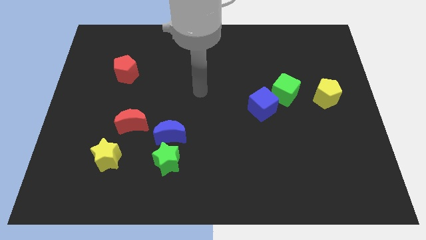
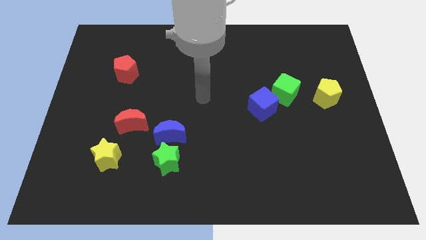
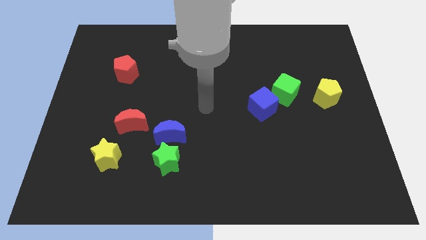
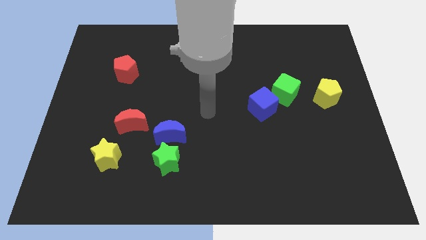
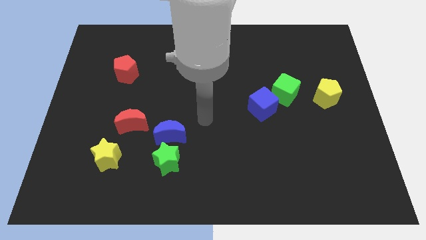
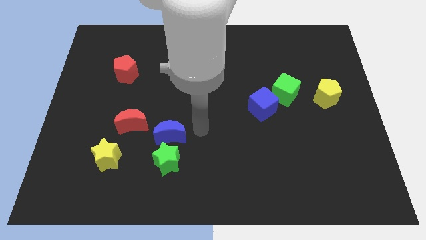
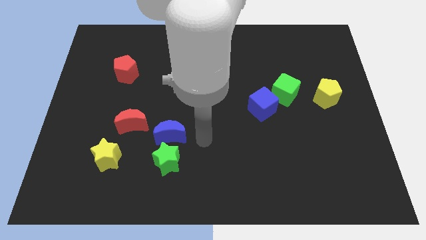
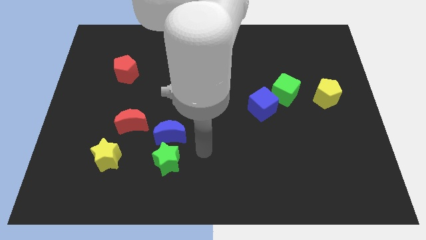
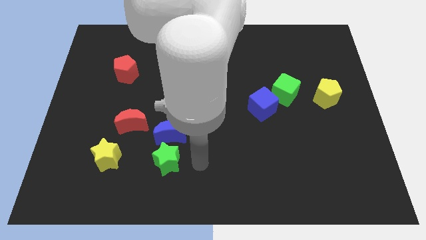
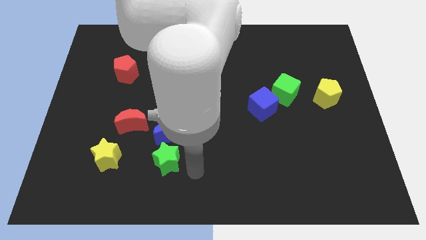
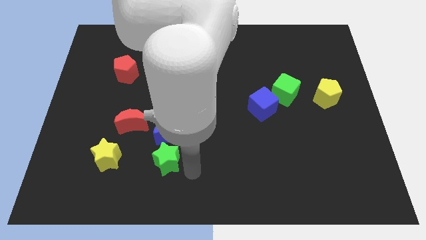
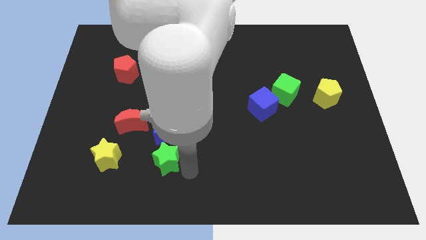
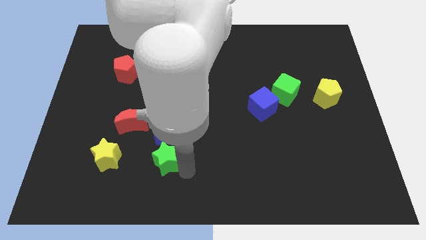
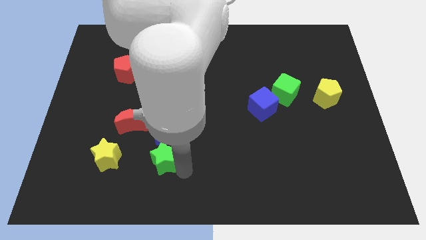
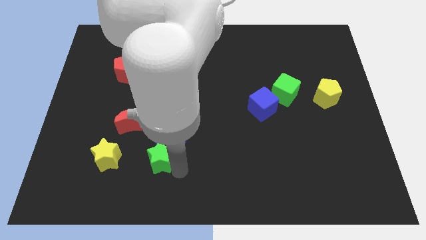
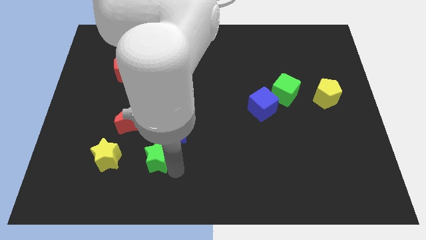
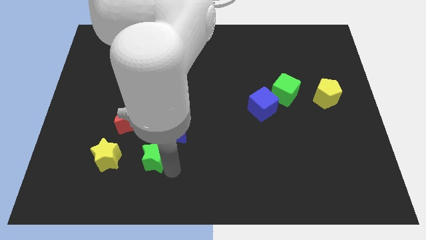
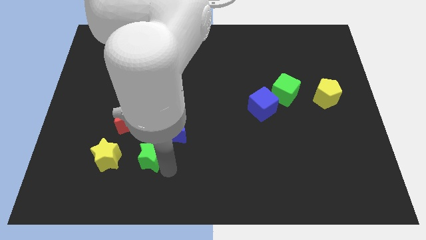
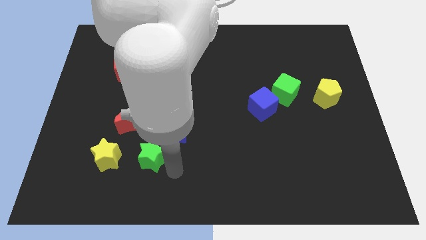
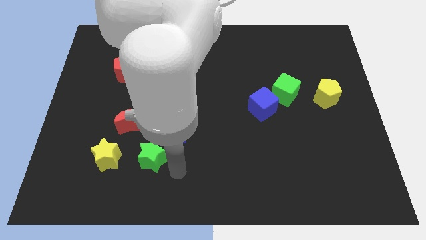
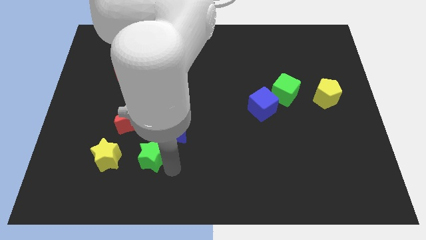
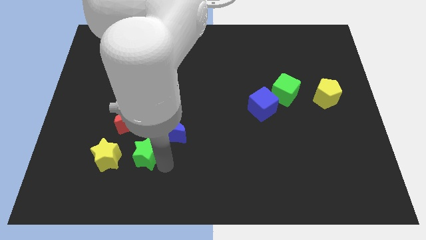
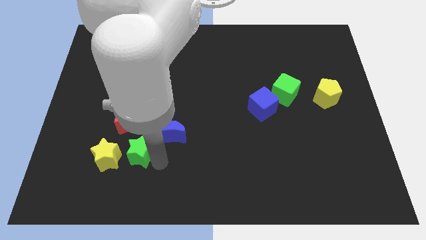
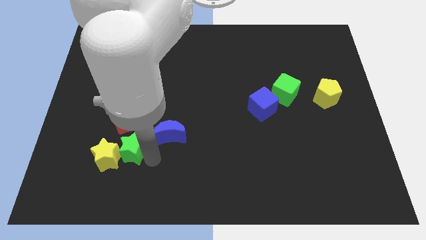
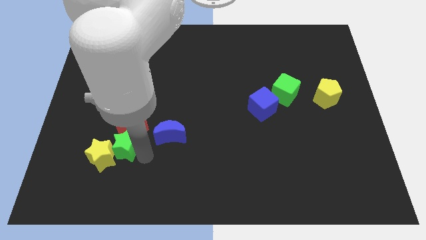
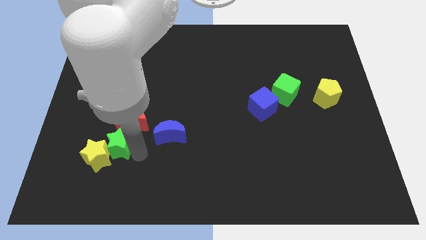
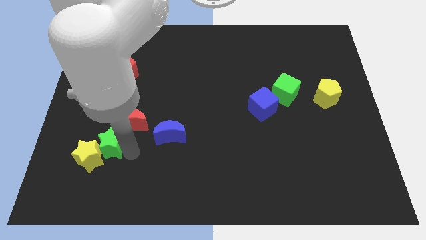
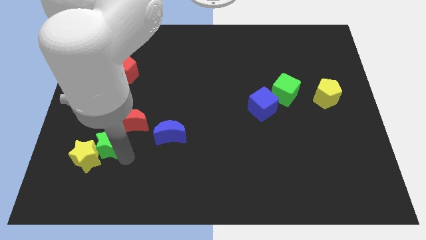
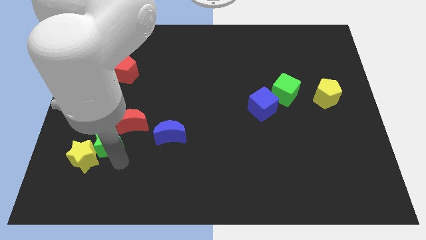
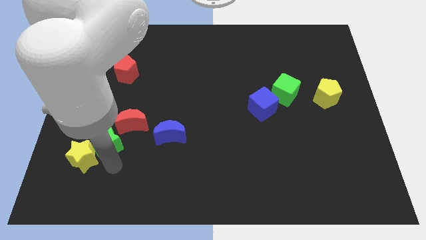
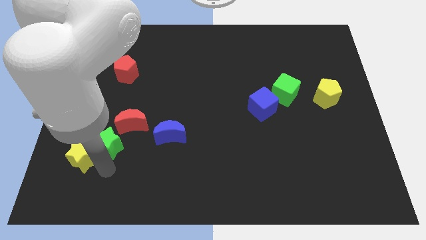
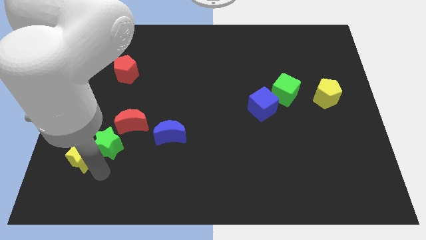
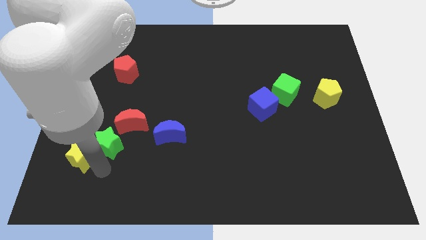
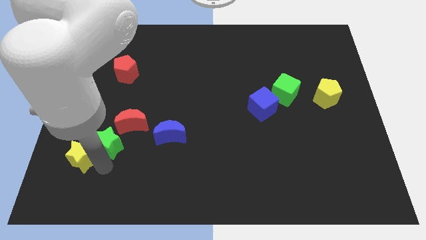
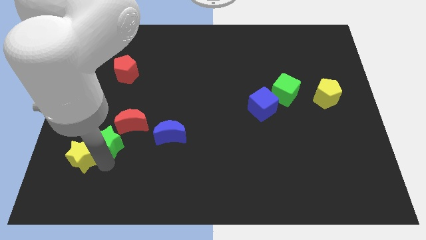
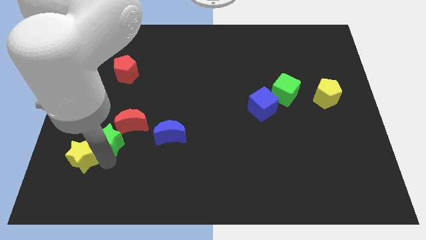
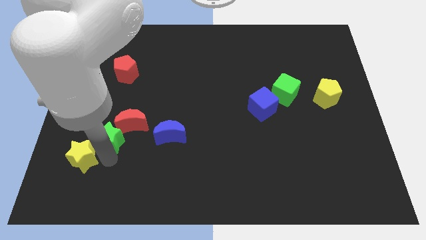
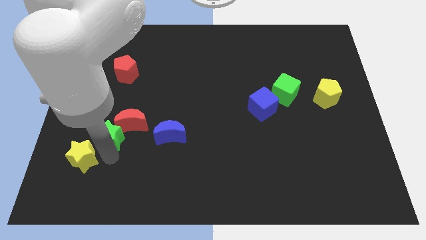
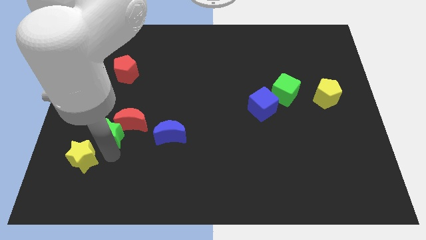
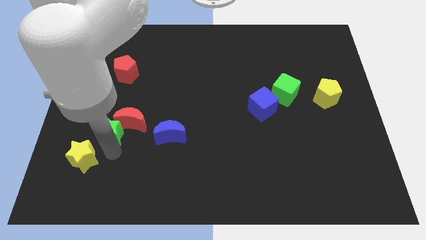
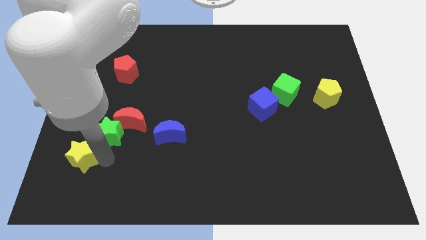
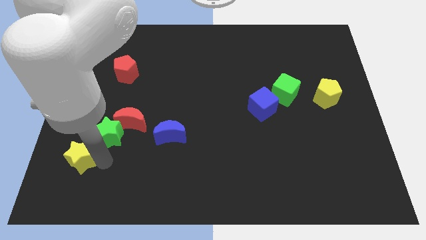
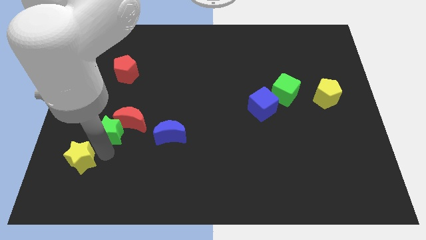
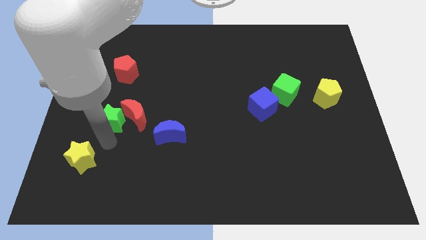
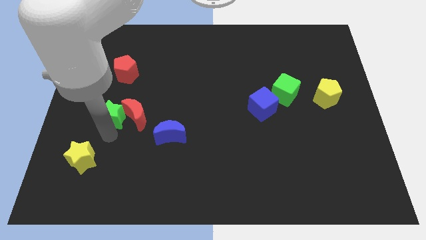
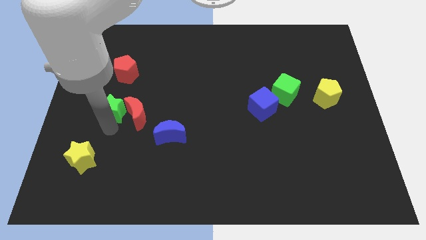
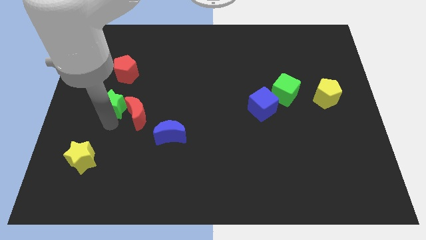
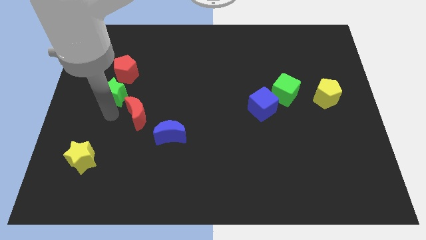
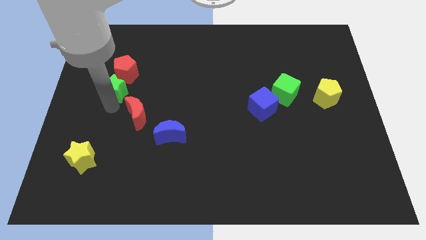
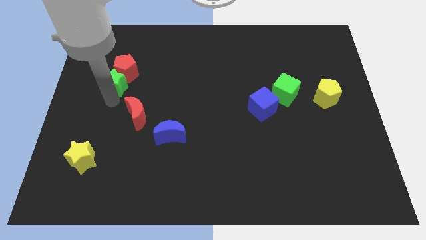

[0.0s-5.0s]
slide the green star to the red pentagon

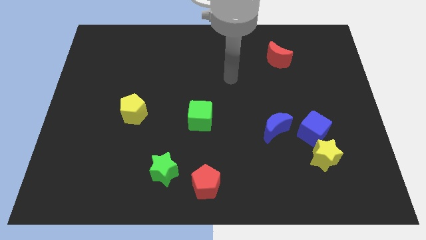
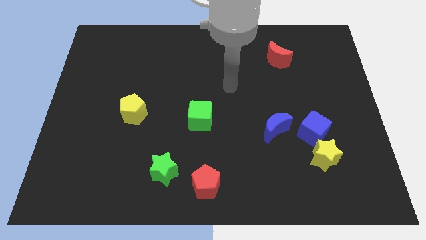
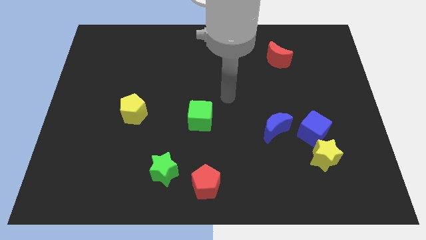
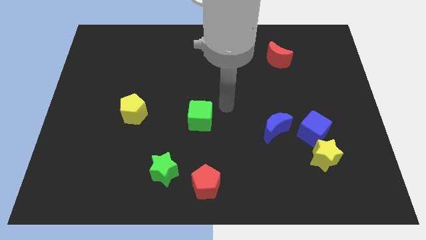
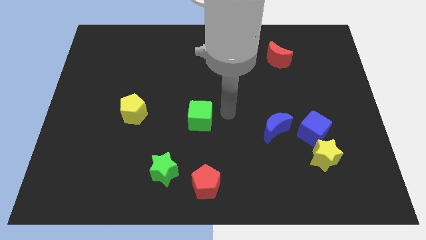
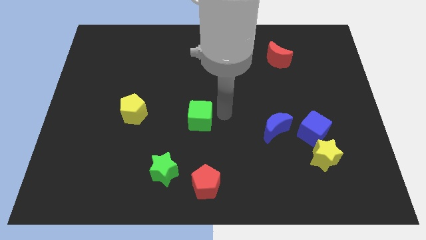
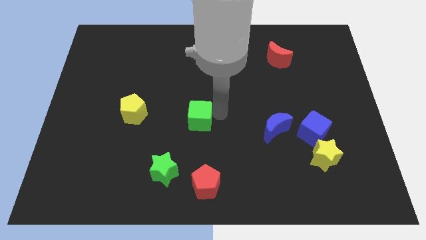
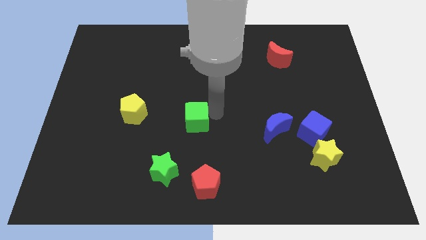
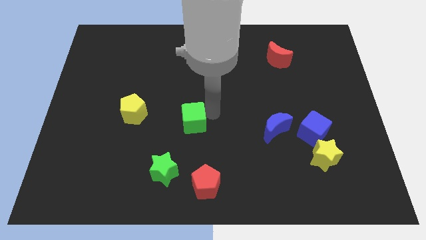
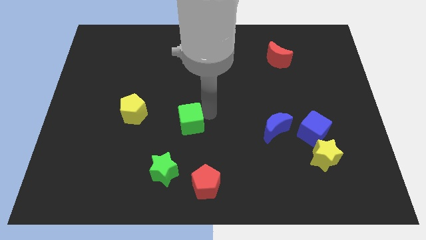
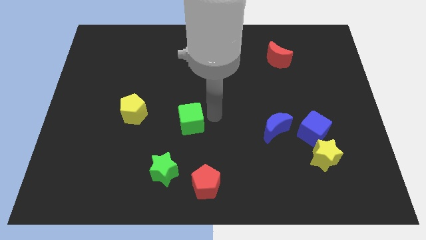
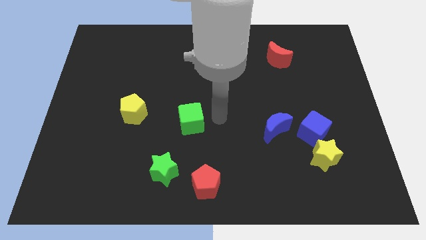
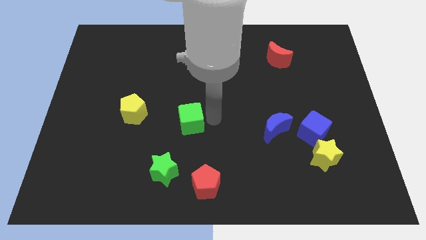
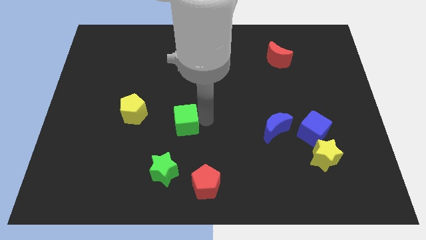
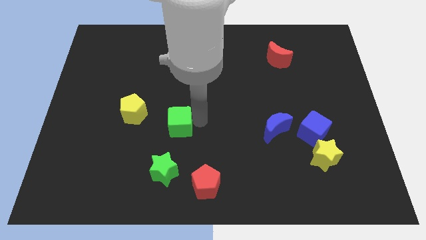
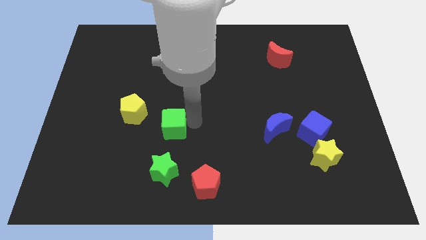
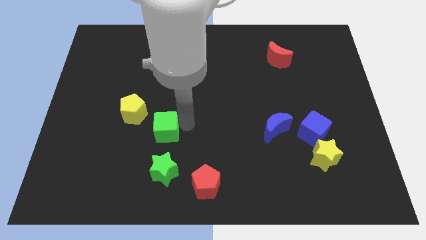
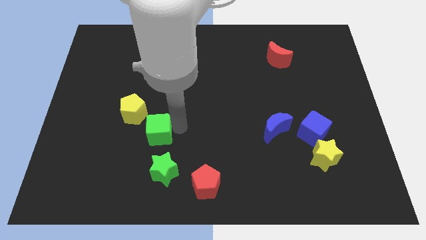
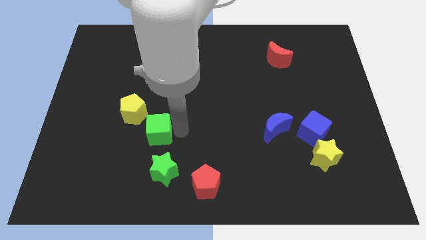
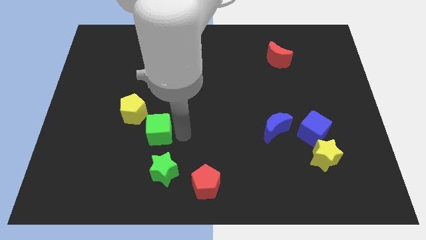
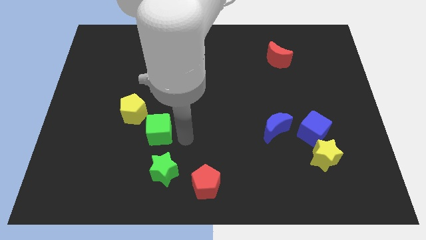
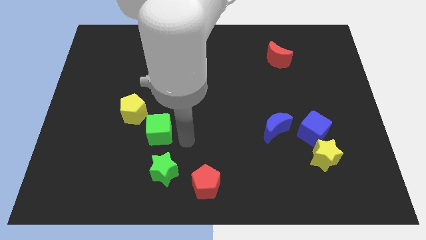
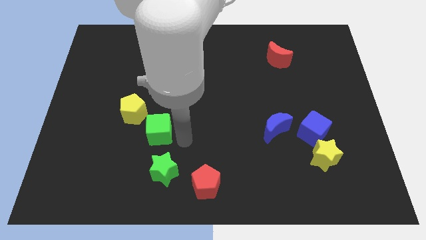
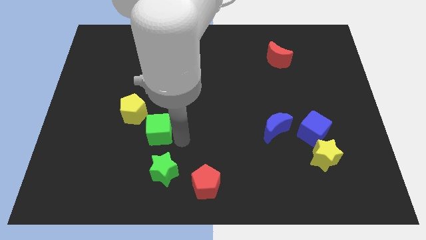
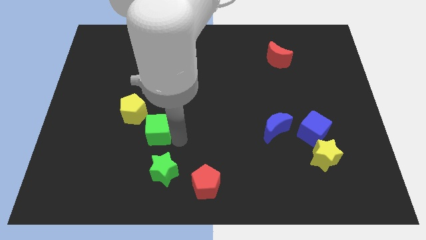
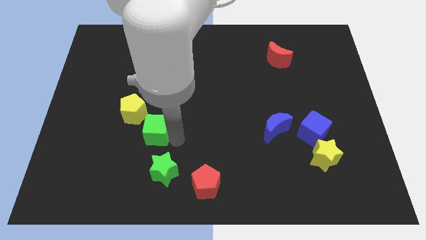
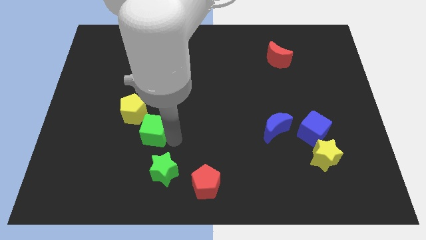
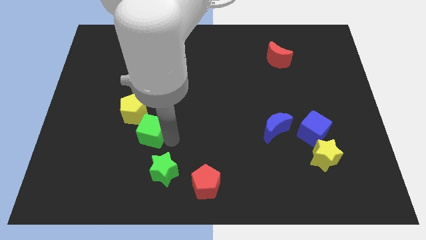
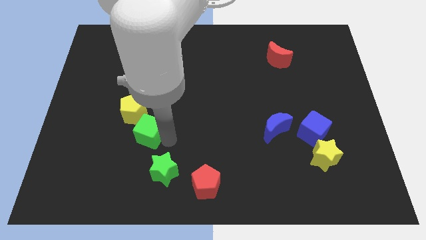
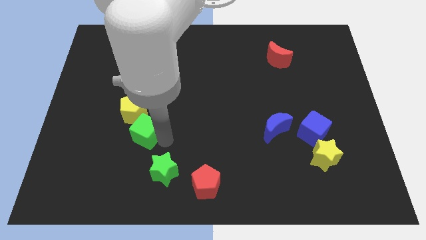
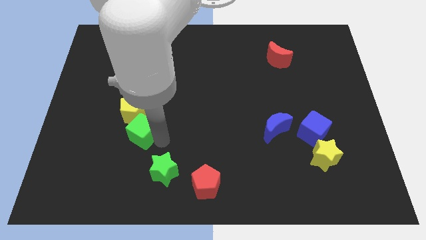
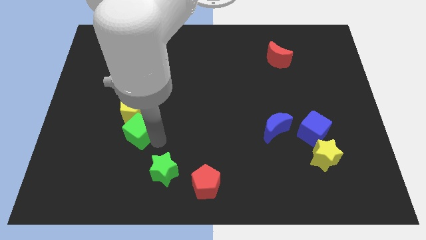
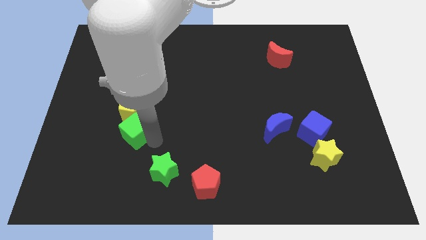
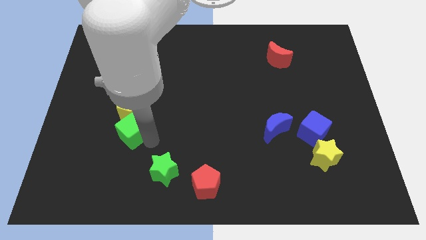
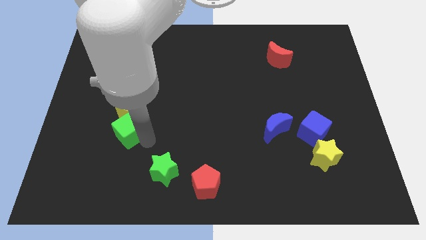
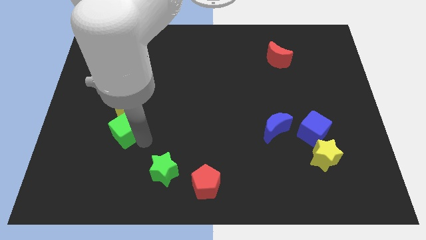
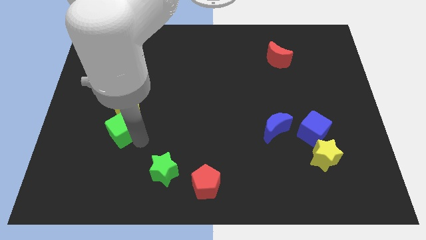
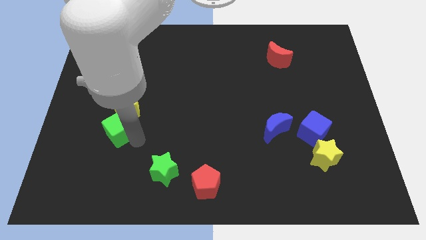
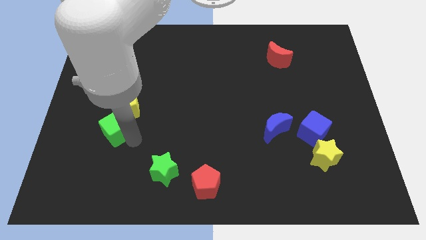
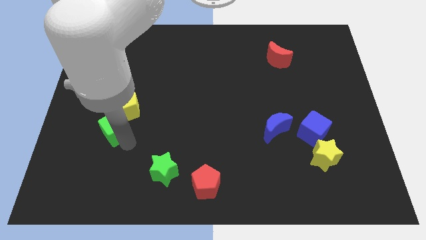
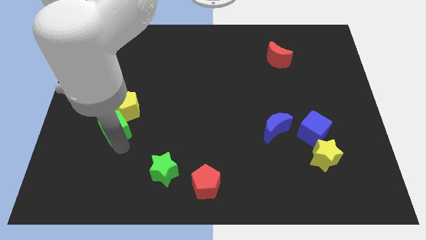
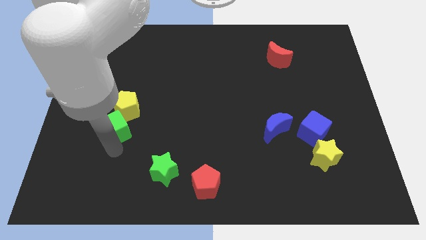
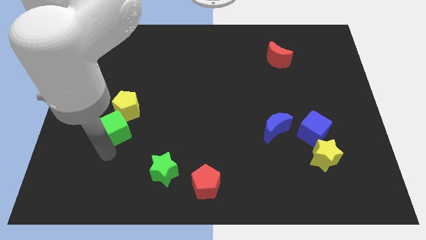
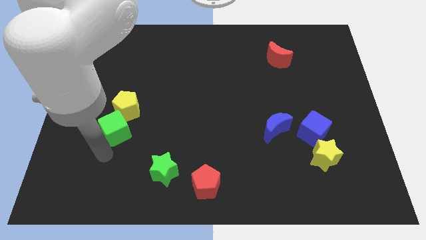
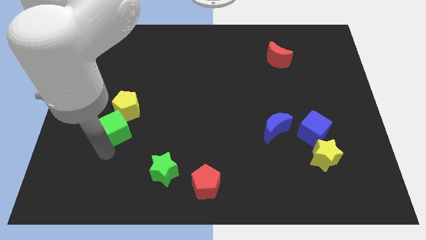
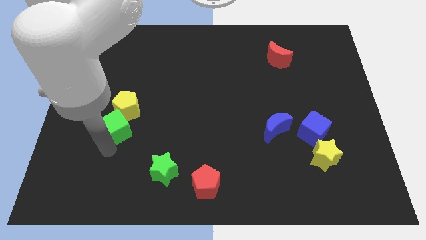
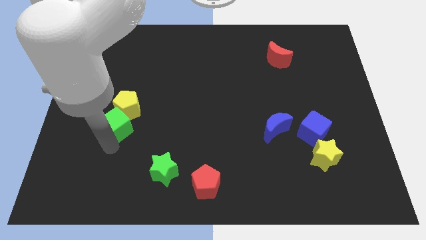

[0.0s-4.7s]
push the green cube next to the yellow pentagon
